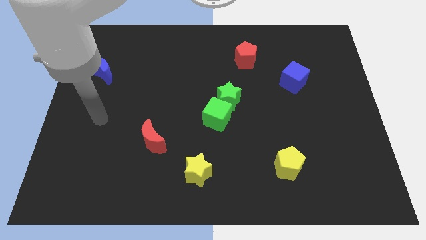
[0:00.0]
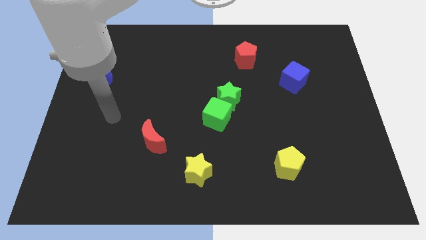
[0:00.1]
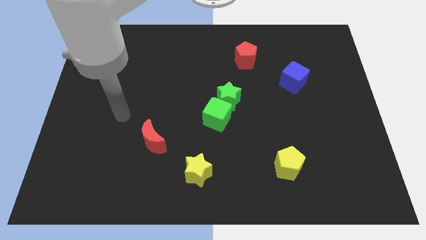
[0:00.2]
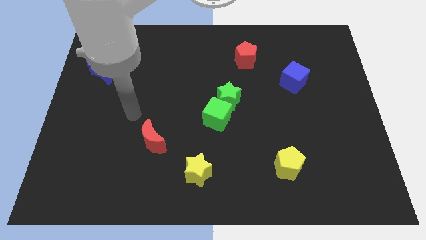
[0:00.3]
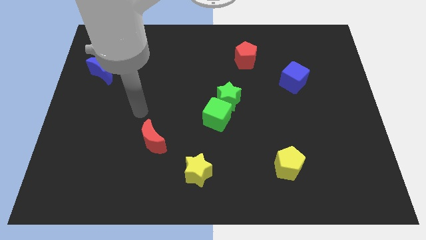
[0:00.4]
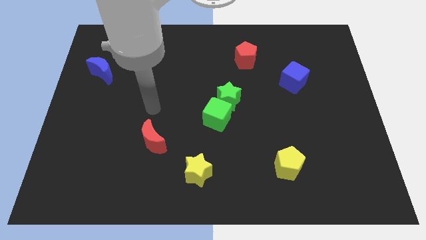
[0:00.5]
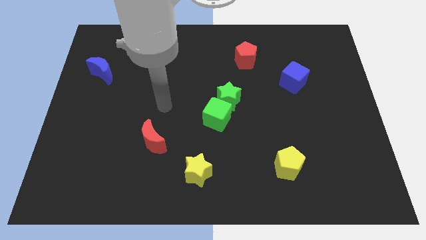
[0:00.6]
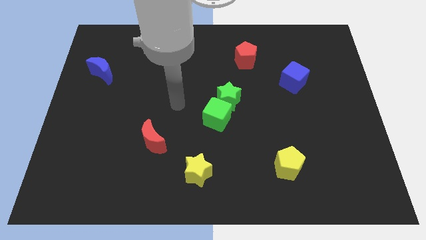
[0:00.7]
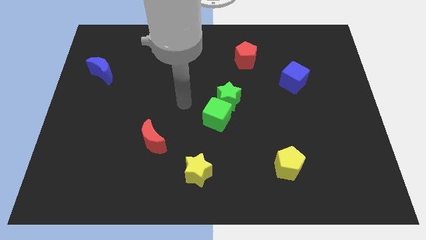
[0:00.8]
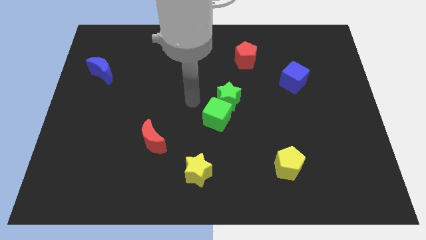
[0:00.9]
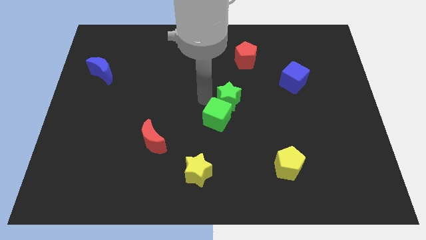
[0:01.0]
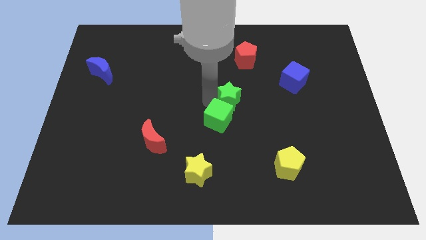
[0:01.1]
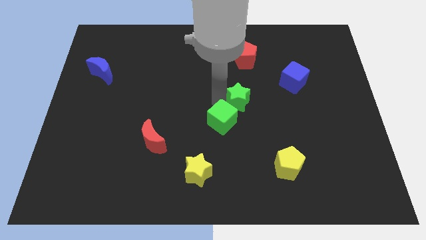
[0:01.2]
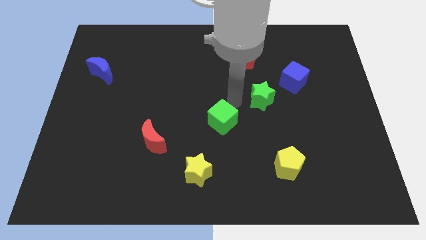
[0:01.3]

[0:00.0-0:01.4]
separate the green cube from the green star

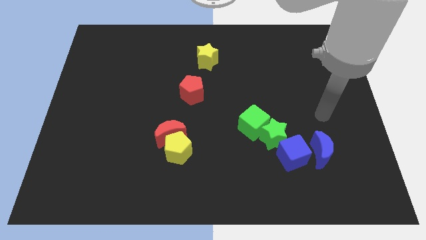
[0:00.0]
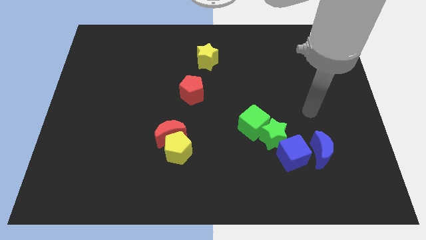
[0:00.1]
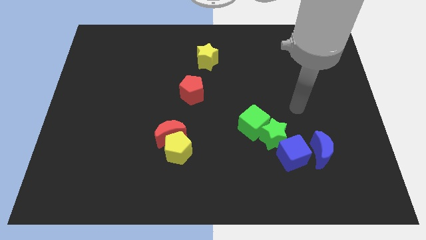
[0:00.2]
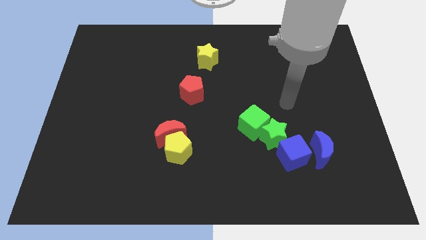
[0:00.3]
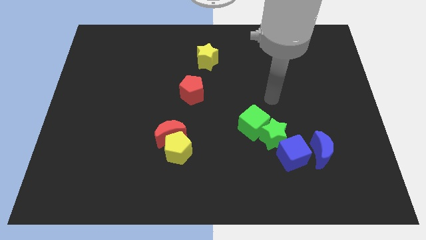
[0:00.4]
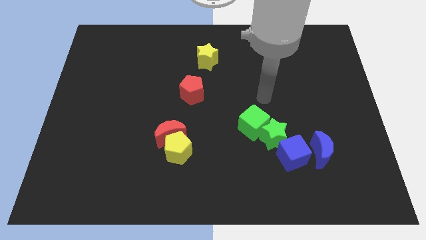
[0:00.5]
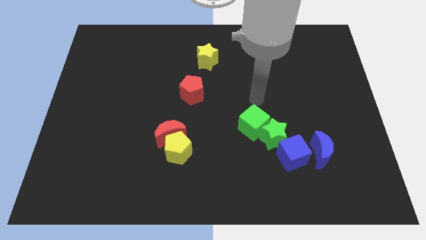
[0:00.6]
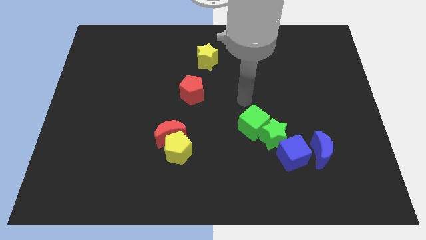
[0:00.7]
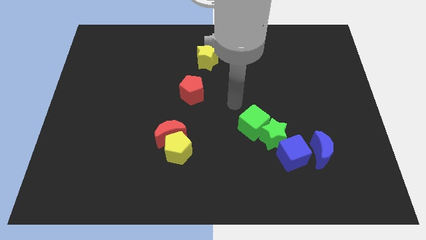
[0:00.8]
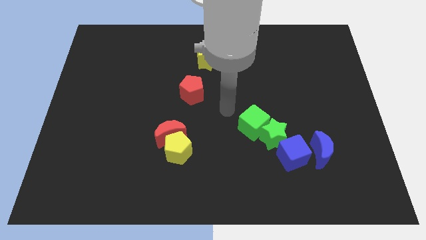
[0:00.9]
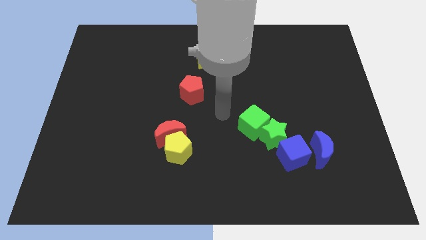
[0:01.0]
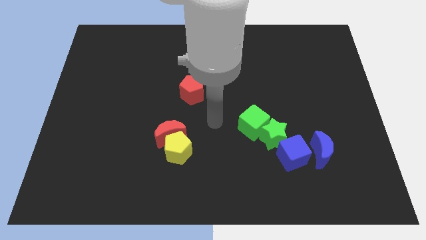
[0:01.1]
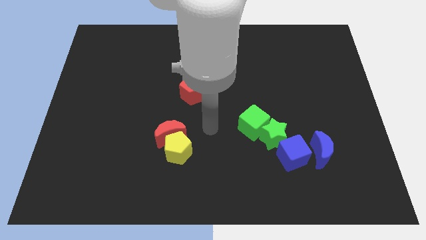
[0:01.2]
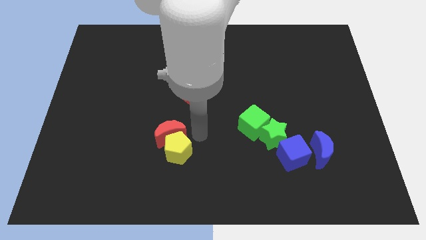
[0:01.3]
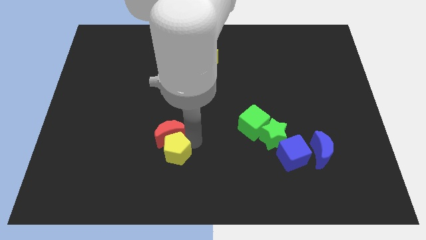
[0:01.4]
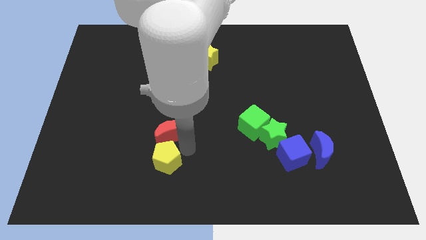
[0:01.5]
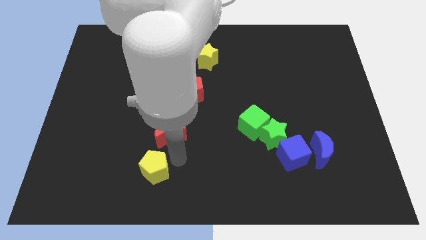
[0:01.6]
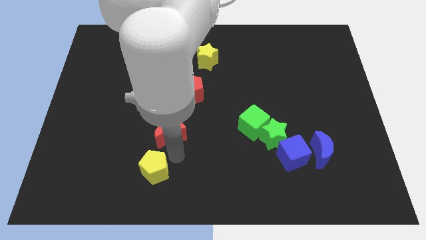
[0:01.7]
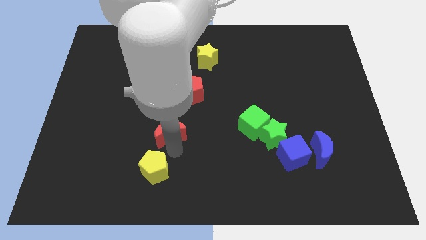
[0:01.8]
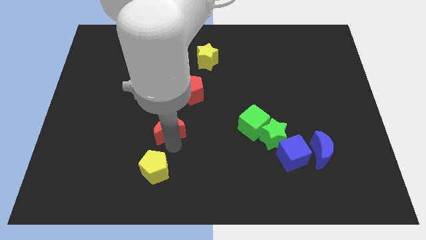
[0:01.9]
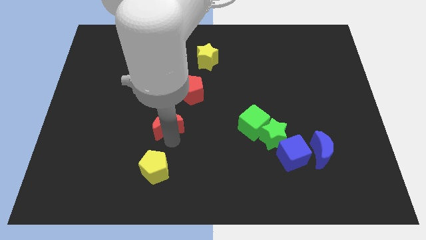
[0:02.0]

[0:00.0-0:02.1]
move the red moon away from the yellow pentagon

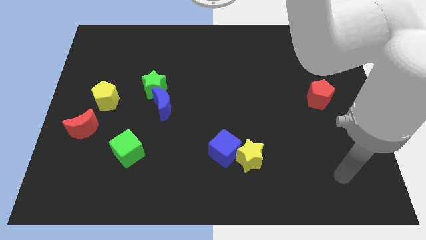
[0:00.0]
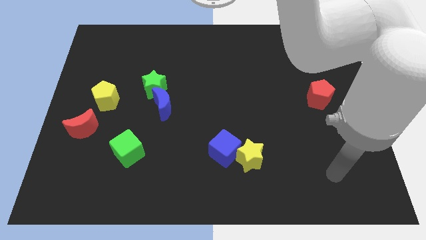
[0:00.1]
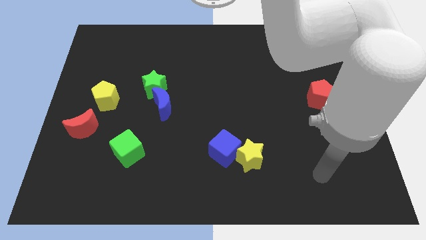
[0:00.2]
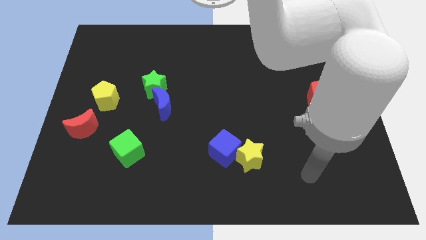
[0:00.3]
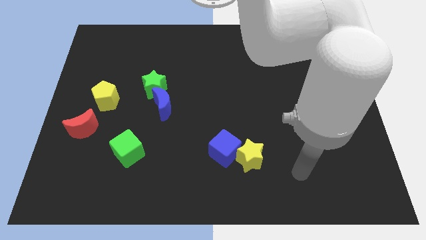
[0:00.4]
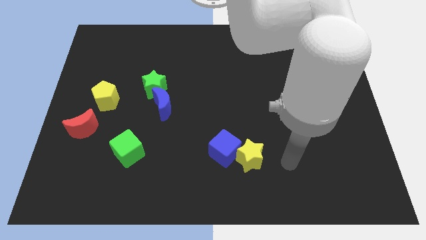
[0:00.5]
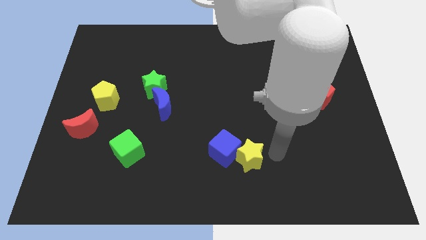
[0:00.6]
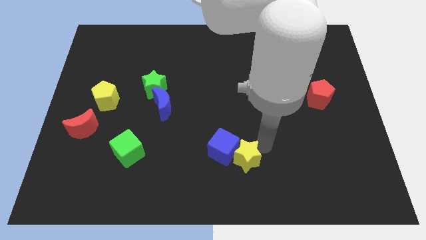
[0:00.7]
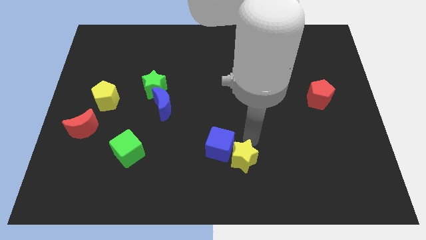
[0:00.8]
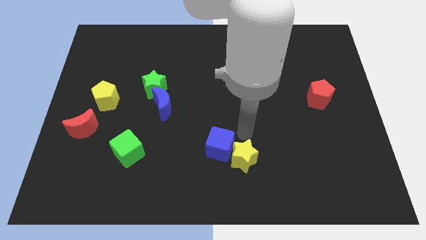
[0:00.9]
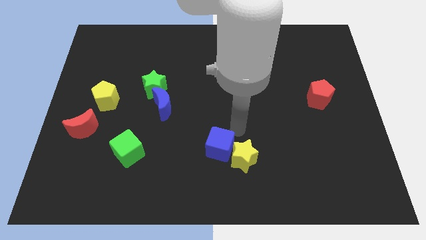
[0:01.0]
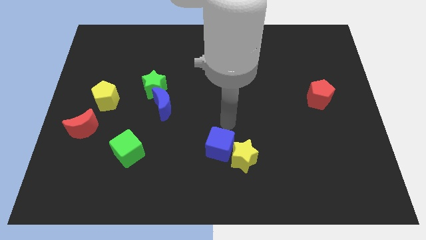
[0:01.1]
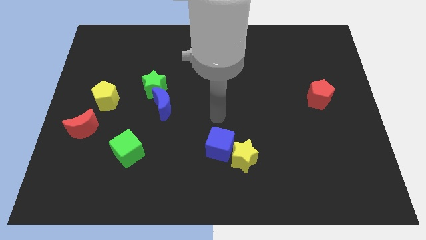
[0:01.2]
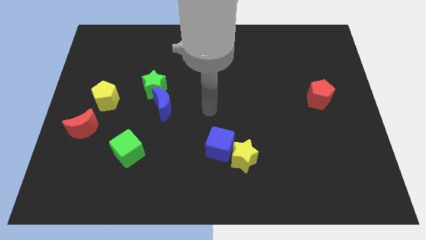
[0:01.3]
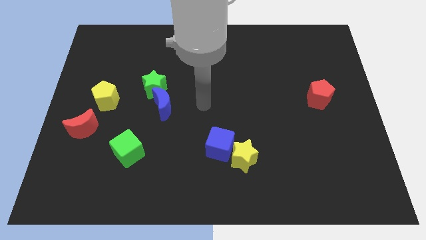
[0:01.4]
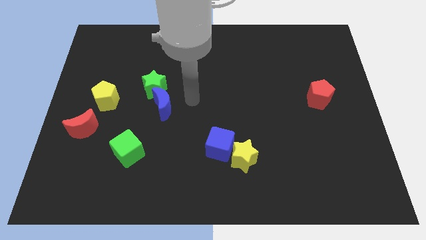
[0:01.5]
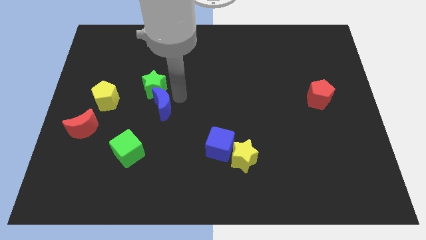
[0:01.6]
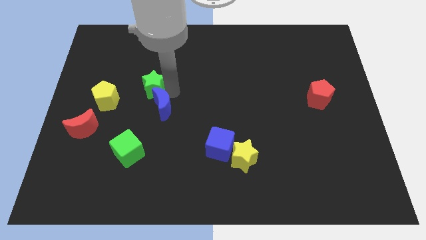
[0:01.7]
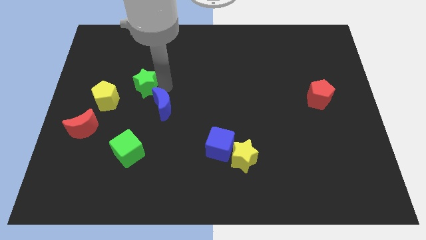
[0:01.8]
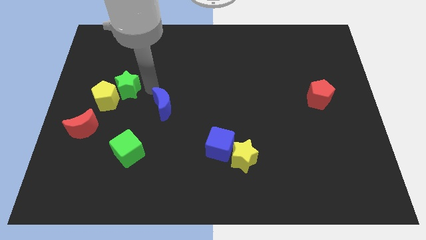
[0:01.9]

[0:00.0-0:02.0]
pull the blue moon apart from the green star

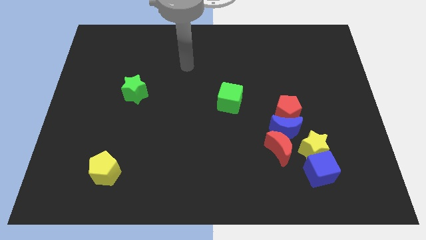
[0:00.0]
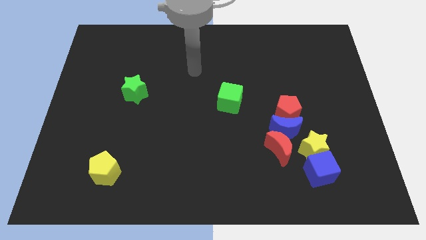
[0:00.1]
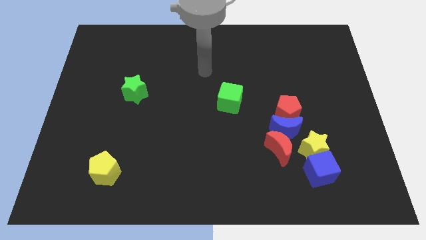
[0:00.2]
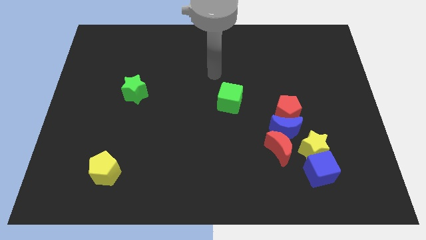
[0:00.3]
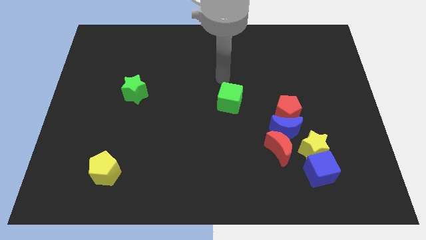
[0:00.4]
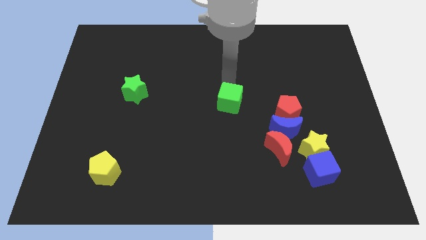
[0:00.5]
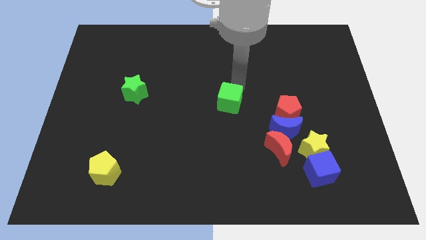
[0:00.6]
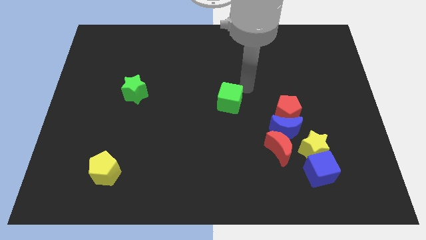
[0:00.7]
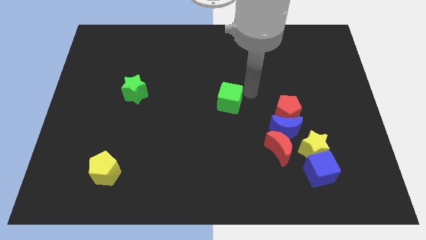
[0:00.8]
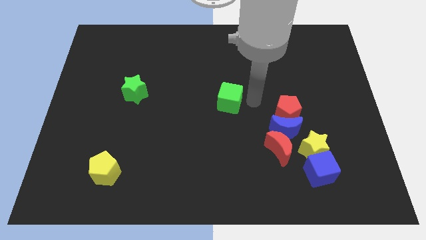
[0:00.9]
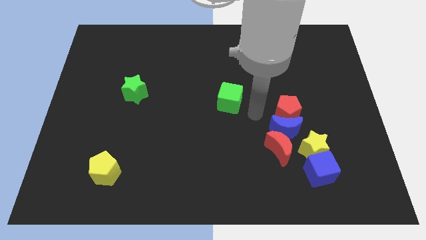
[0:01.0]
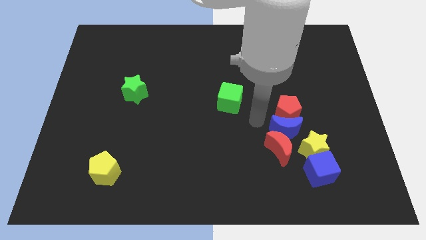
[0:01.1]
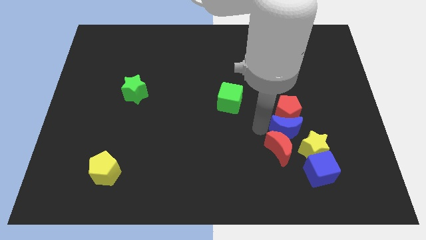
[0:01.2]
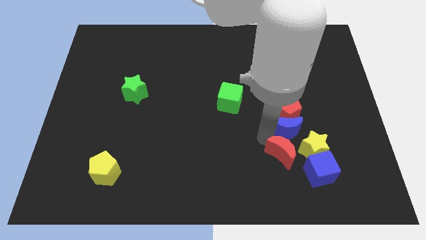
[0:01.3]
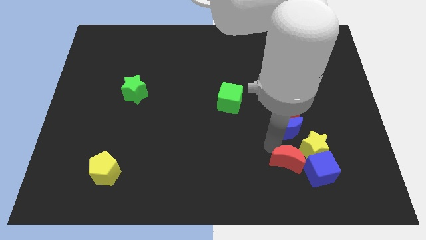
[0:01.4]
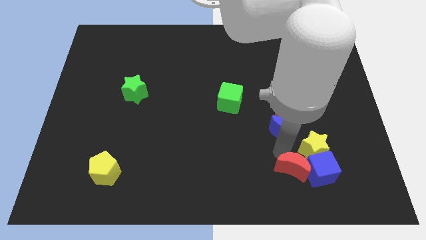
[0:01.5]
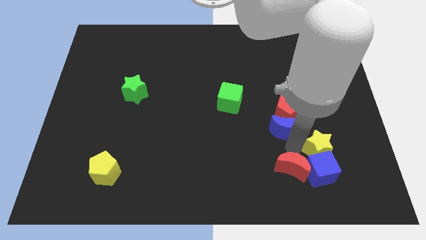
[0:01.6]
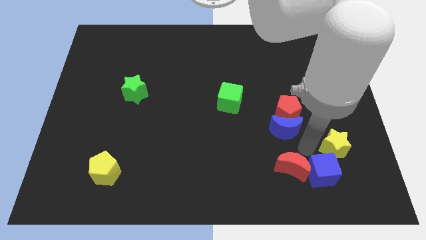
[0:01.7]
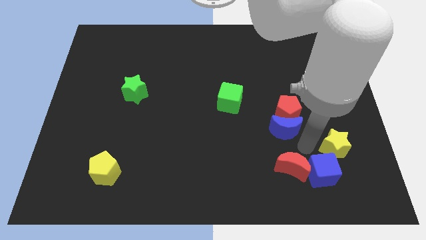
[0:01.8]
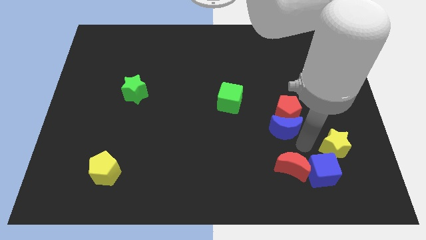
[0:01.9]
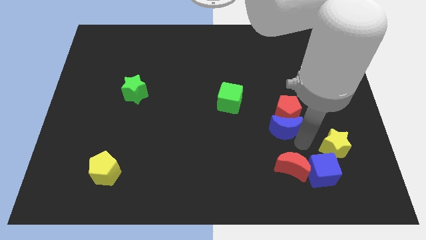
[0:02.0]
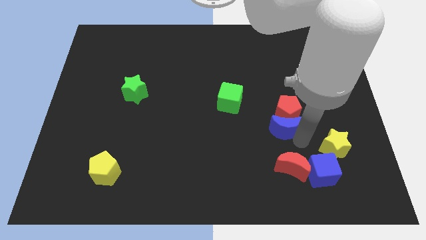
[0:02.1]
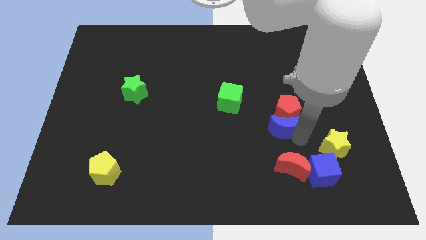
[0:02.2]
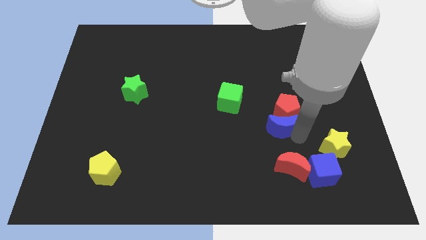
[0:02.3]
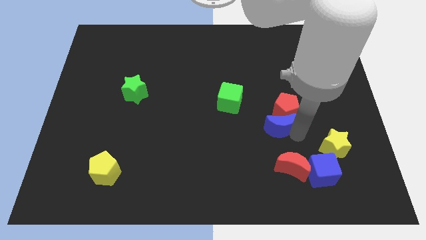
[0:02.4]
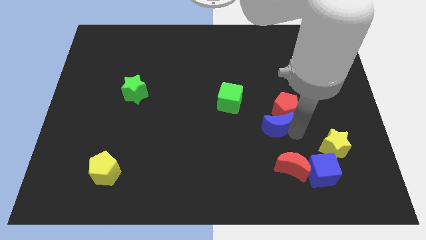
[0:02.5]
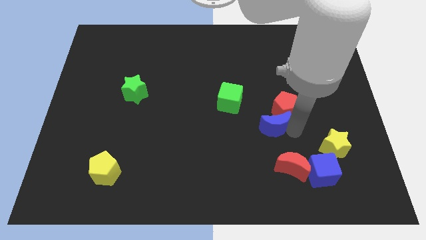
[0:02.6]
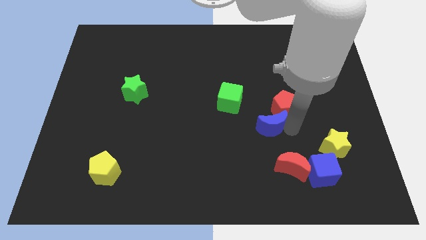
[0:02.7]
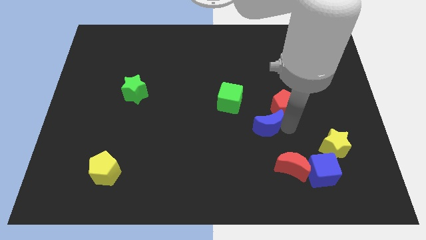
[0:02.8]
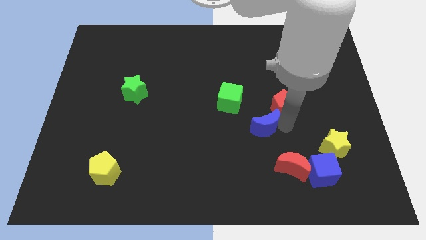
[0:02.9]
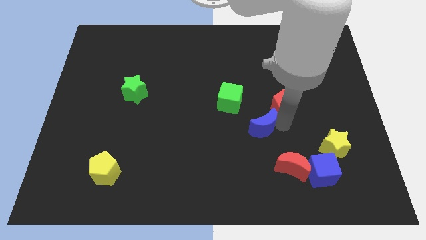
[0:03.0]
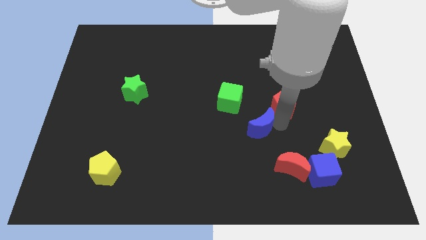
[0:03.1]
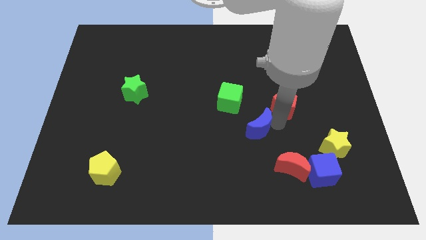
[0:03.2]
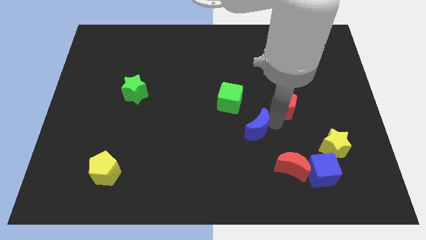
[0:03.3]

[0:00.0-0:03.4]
separate the blue moon from the red pentagon, red moon, and yellow star

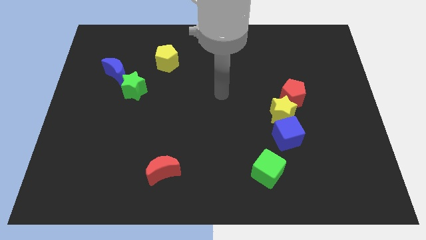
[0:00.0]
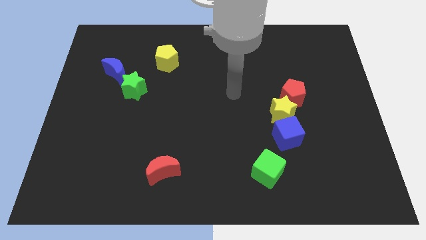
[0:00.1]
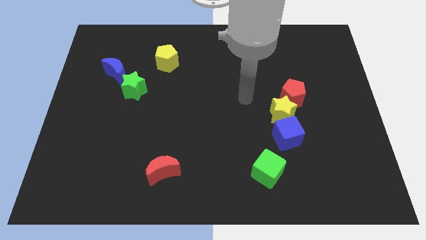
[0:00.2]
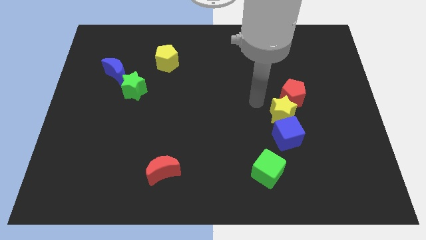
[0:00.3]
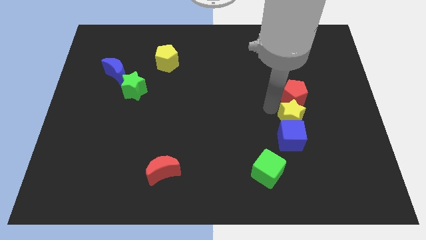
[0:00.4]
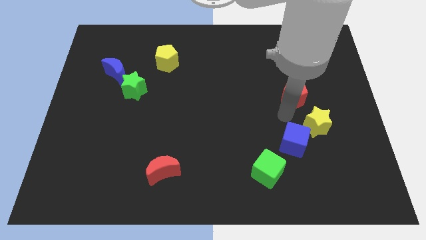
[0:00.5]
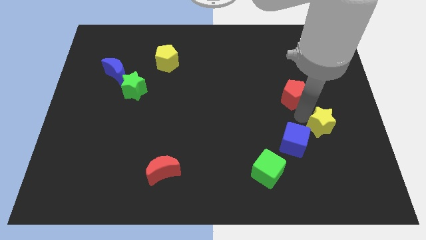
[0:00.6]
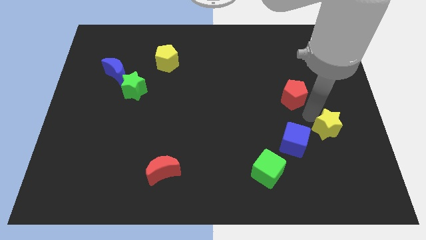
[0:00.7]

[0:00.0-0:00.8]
pull the red pentagon apart from the yellow star
